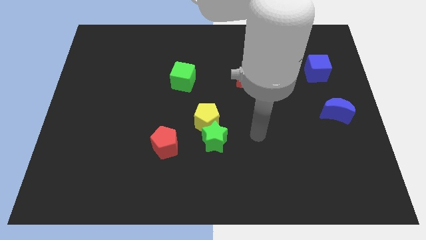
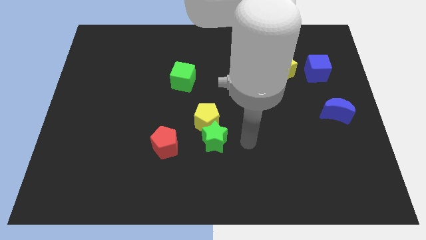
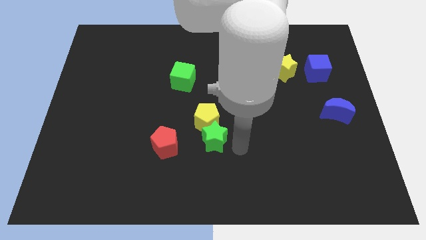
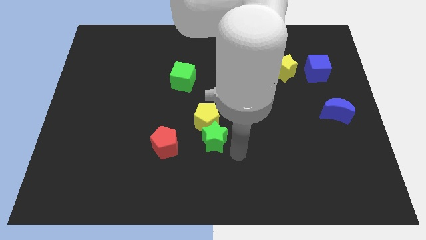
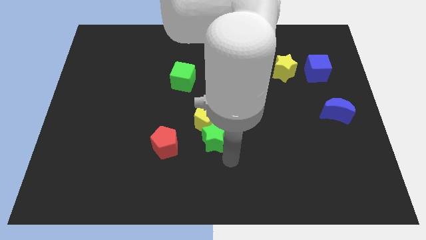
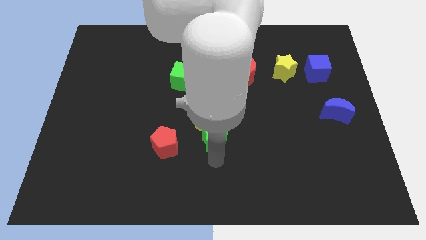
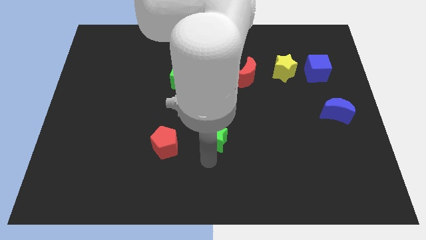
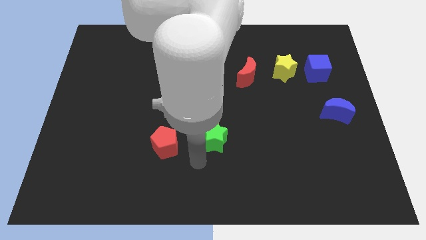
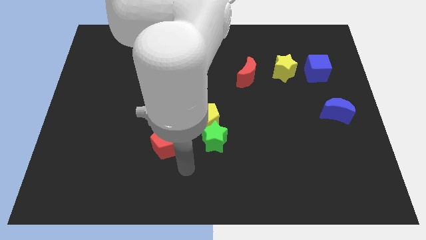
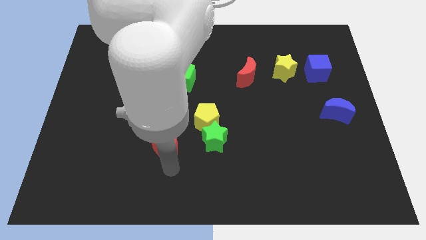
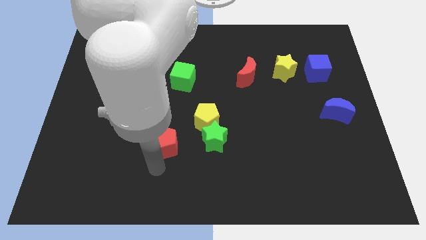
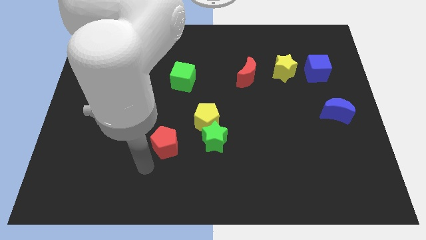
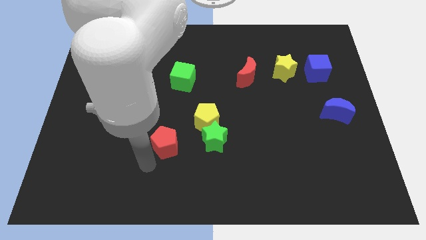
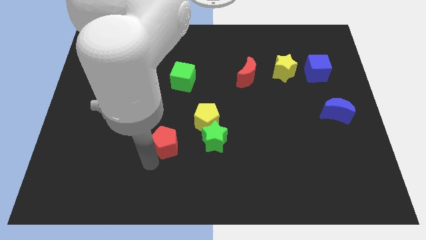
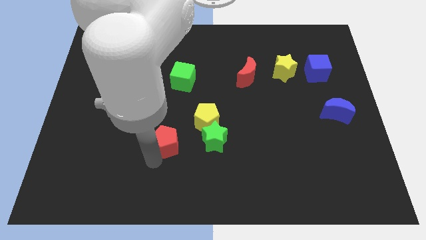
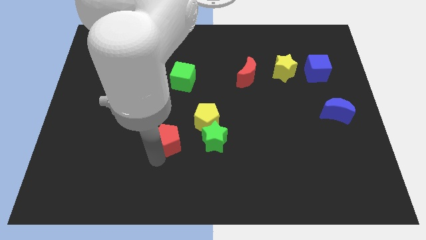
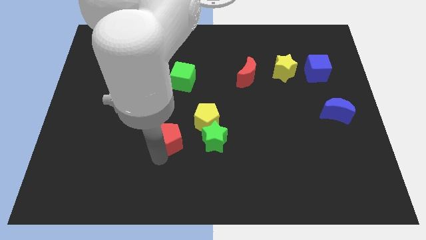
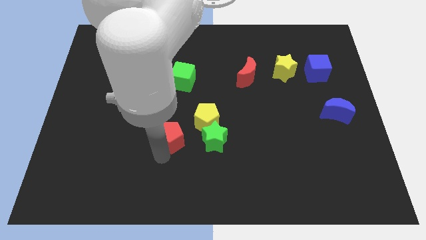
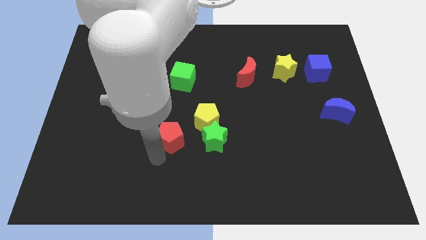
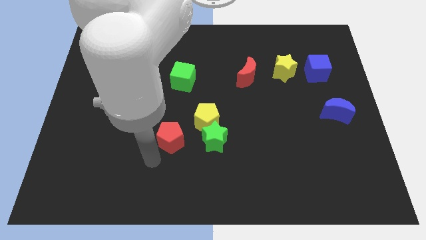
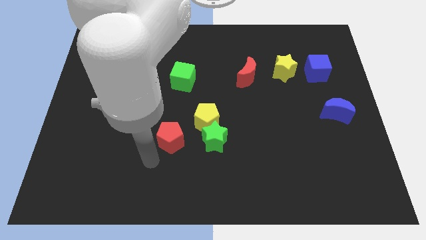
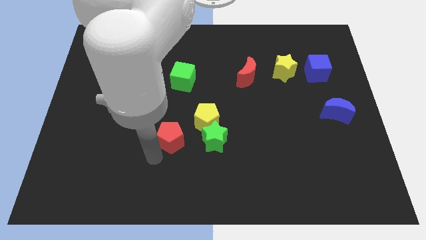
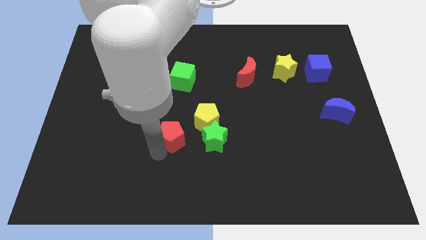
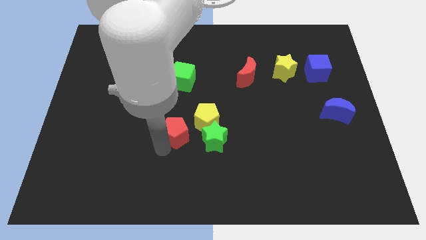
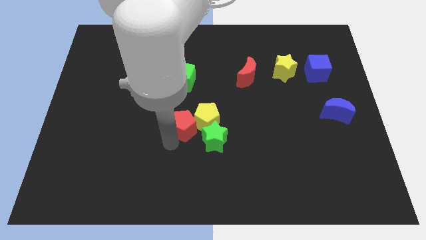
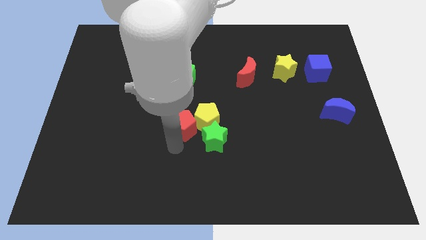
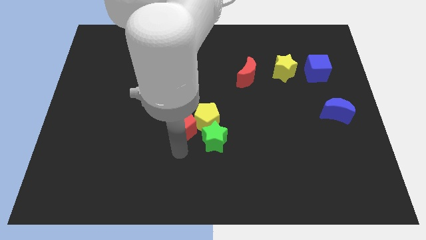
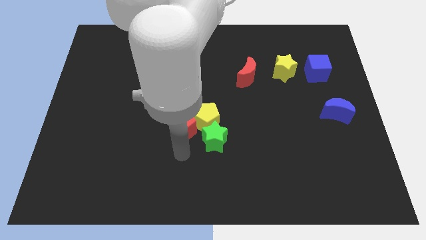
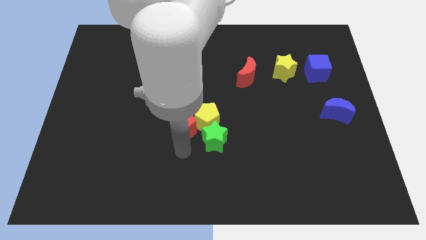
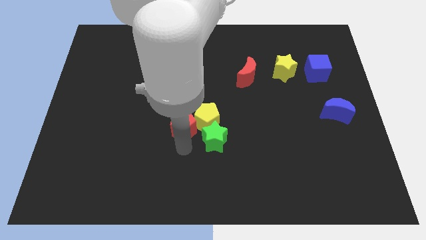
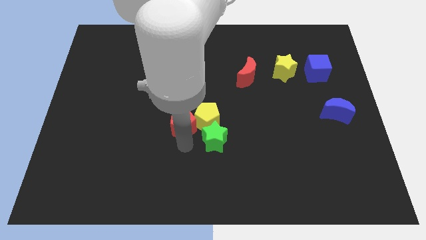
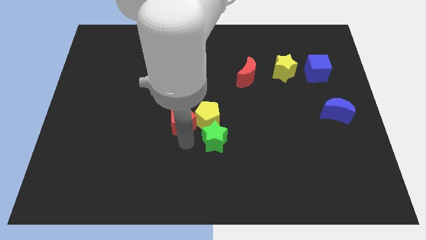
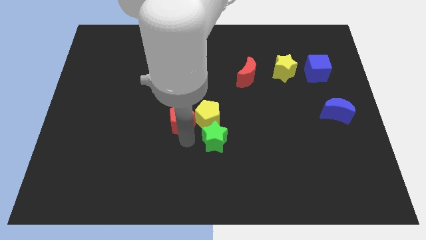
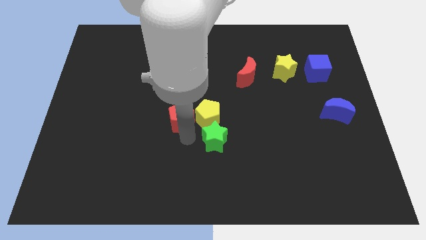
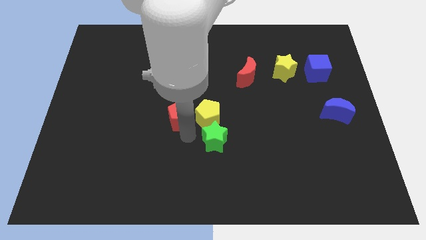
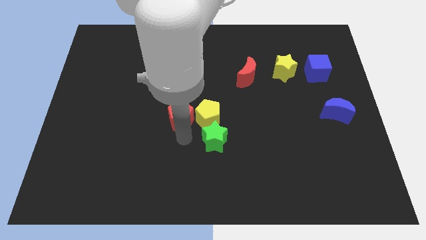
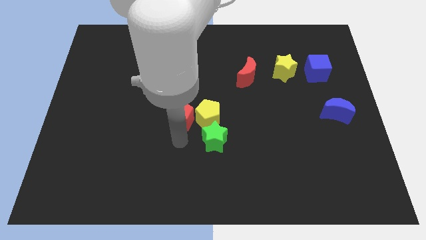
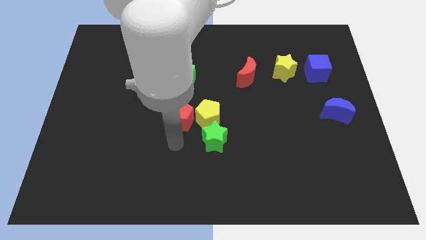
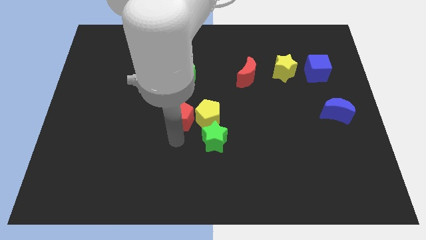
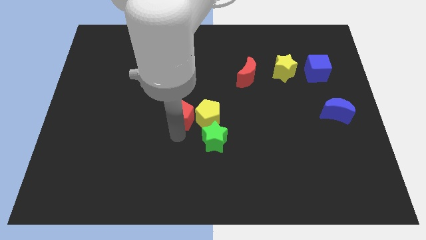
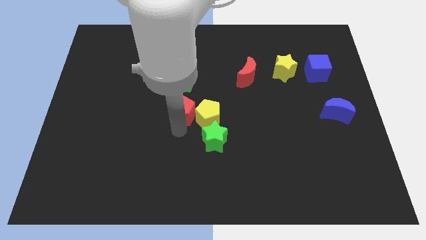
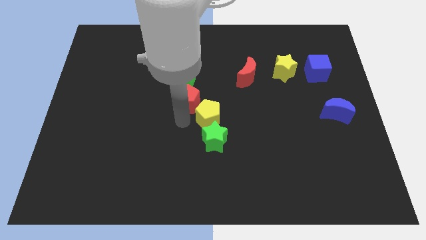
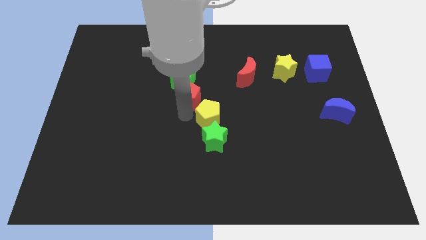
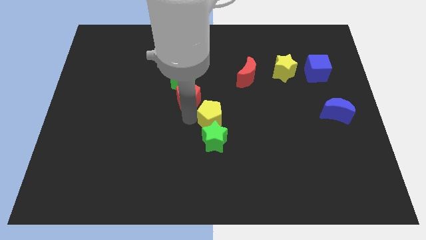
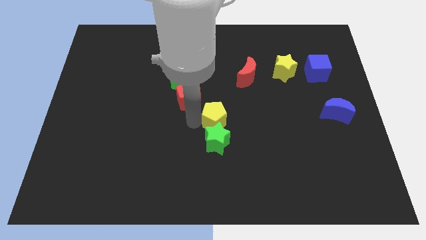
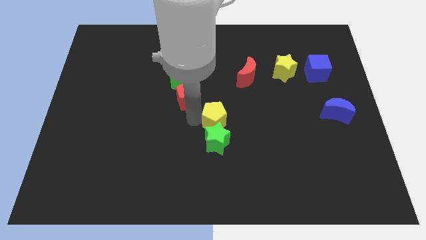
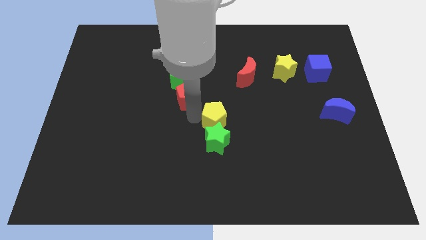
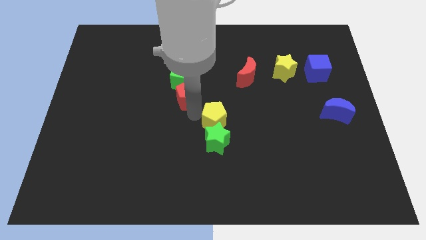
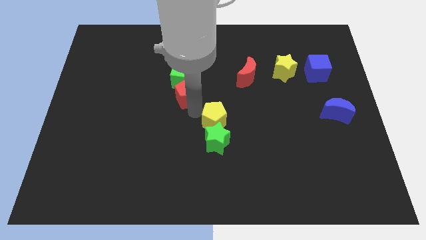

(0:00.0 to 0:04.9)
move the red pentagon towards the green cube

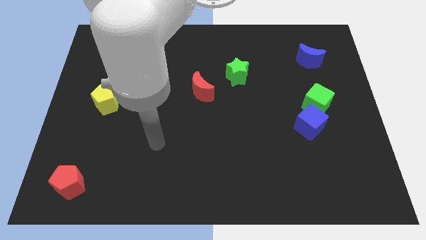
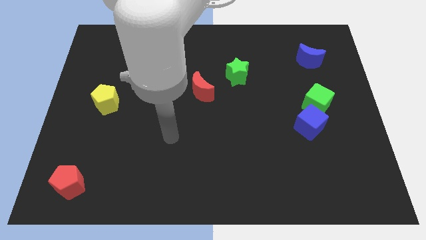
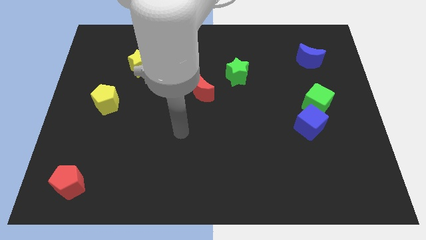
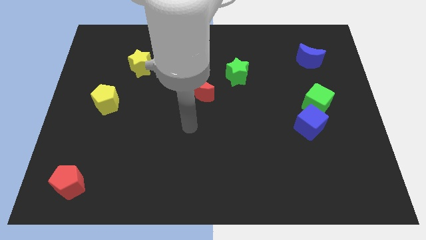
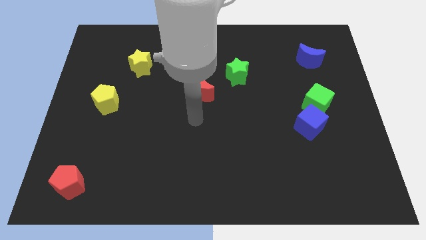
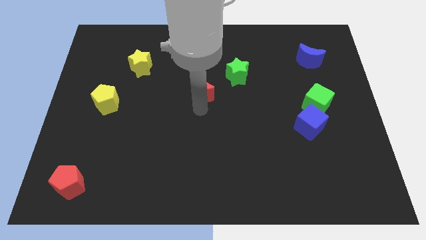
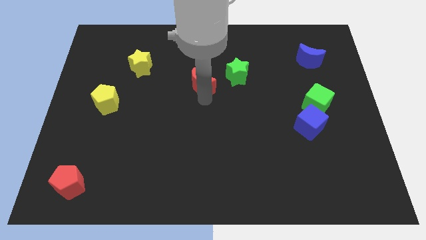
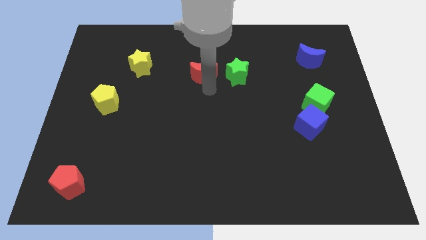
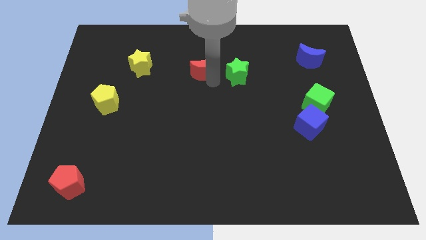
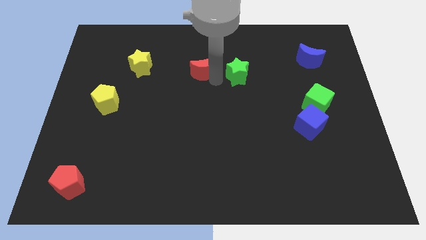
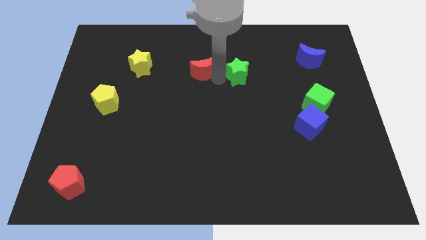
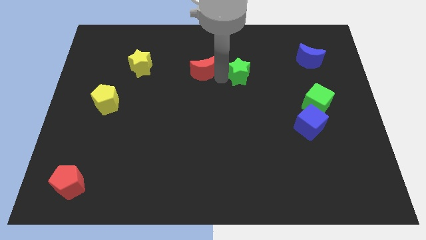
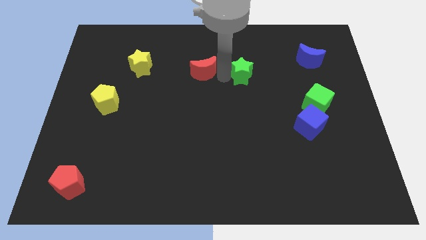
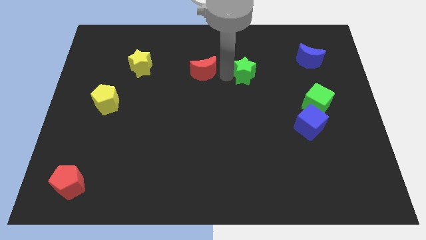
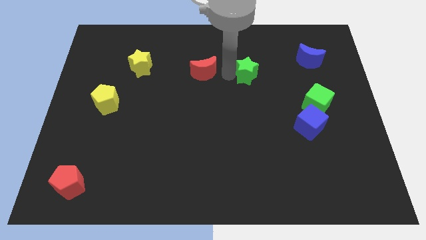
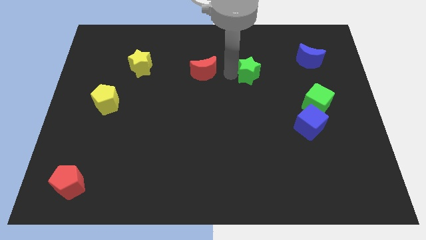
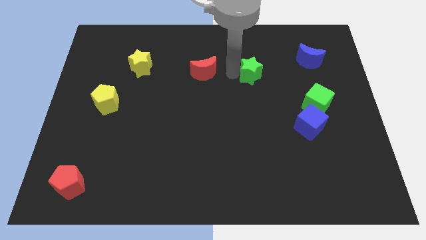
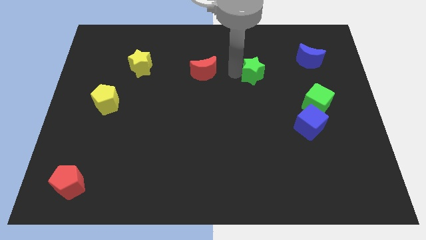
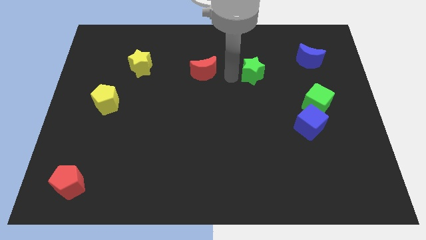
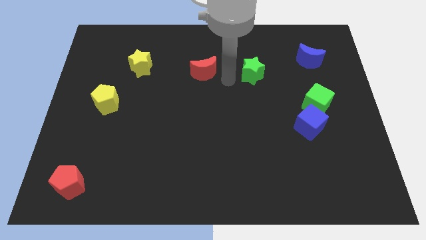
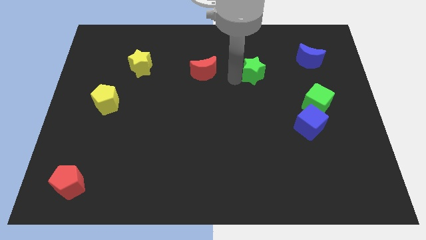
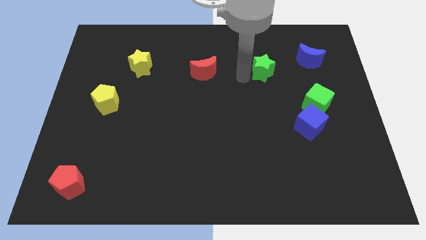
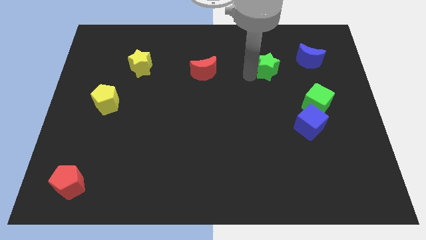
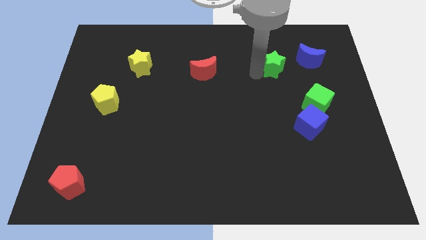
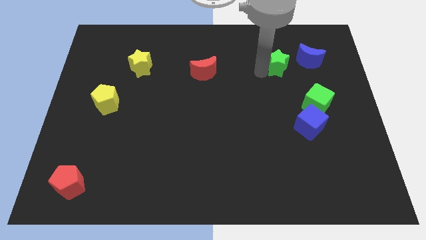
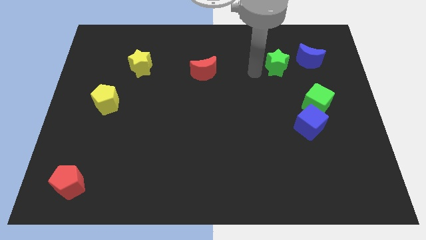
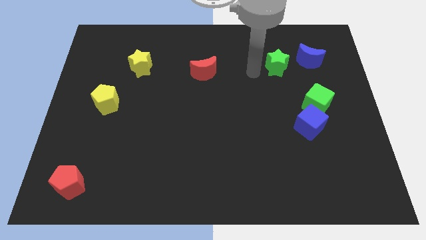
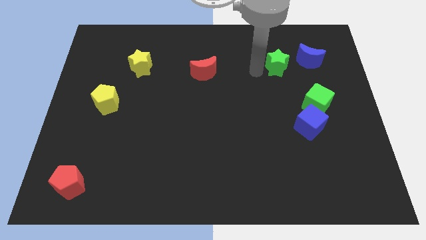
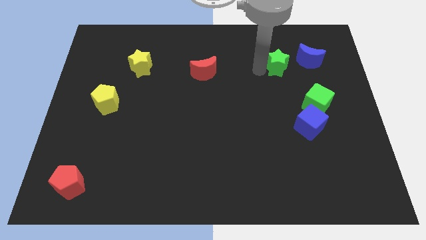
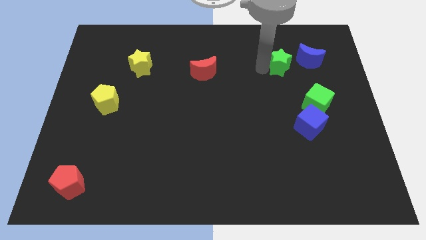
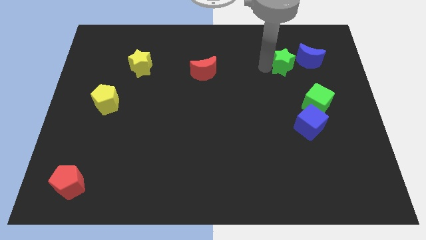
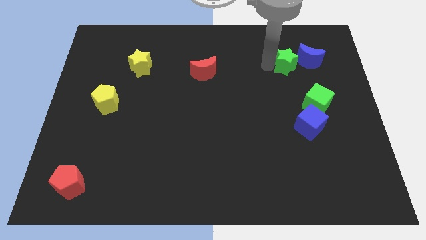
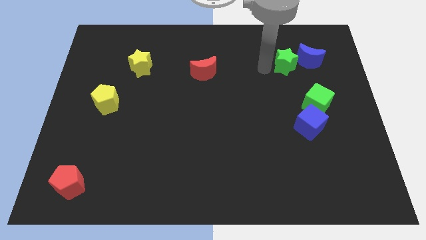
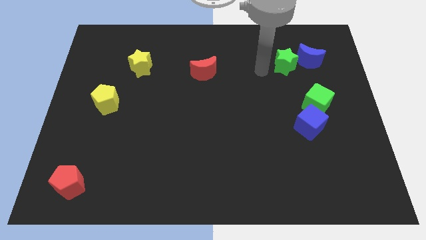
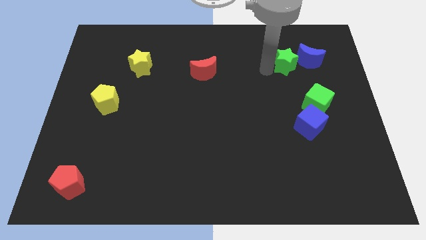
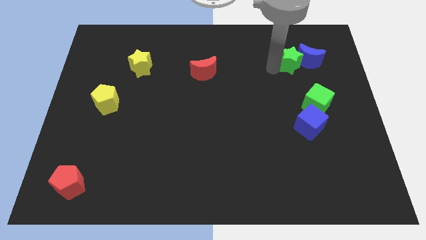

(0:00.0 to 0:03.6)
put the green star close to the blue moon
